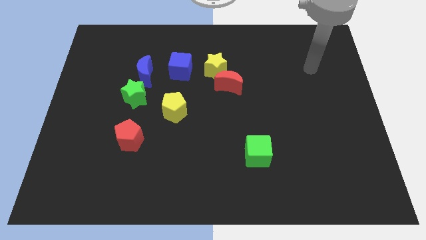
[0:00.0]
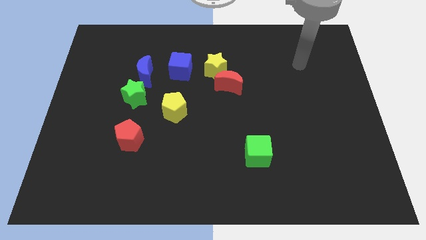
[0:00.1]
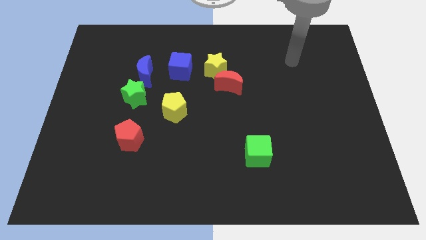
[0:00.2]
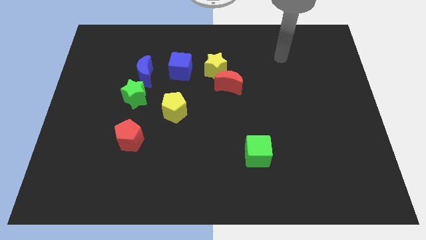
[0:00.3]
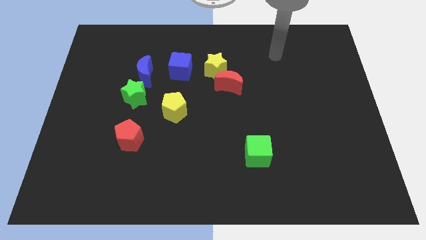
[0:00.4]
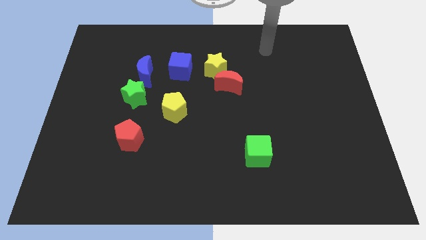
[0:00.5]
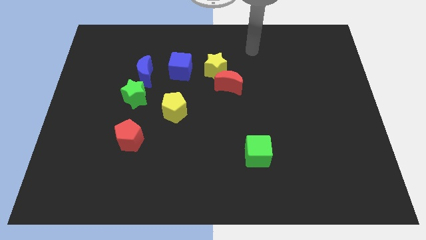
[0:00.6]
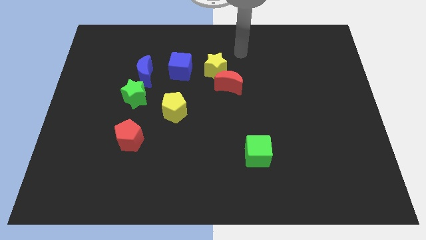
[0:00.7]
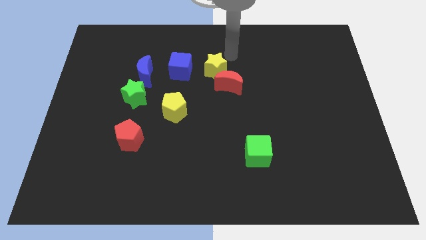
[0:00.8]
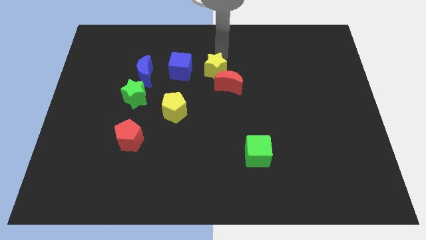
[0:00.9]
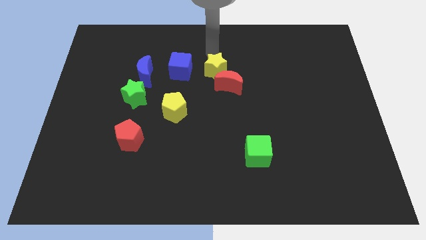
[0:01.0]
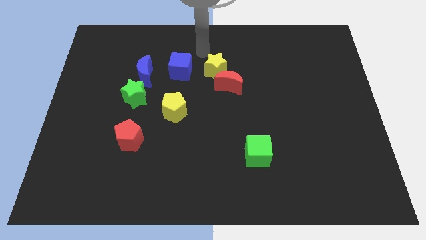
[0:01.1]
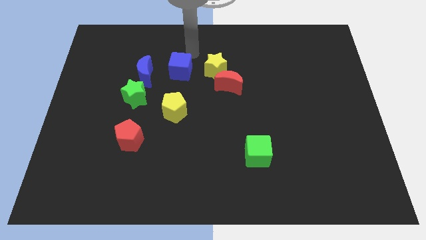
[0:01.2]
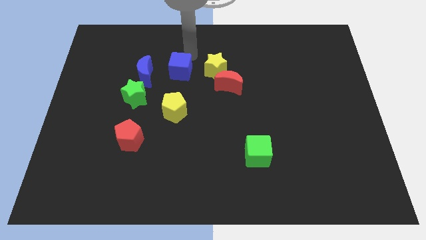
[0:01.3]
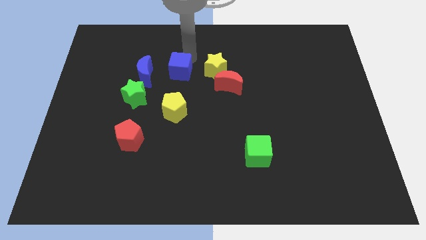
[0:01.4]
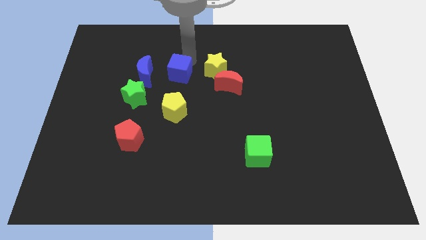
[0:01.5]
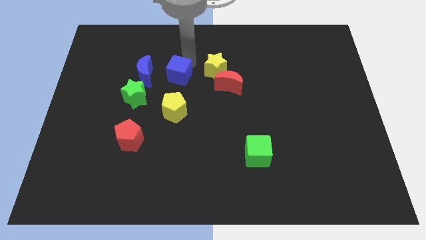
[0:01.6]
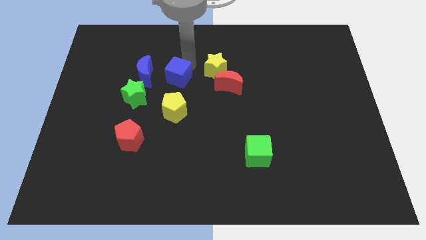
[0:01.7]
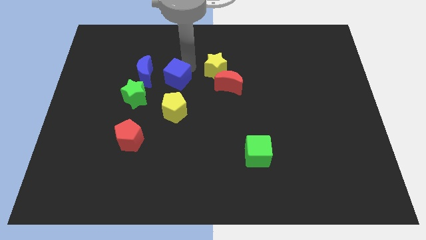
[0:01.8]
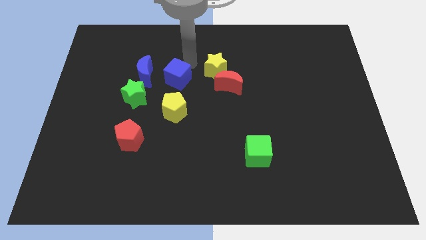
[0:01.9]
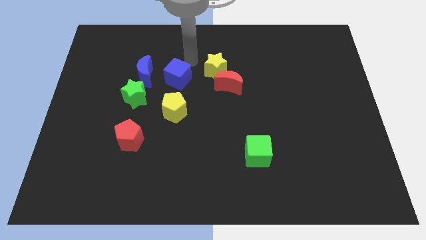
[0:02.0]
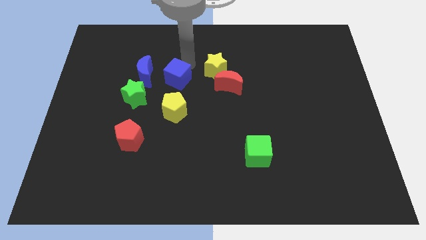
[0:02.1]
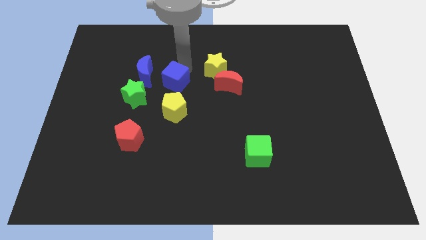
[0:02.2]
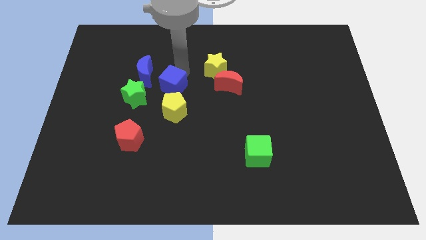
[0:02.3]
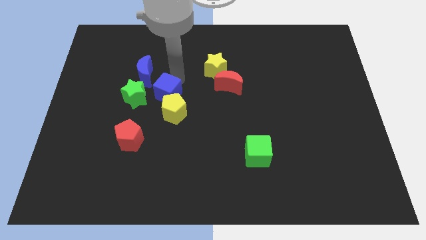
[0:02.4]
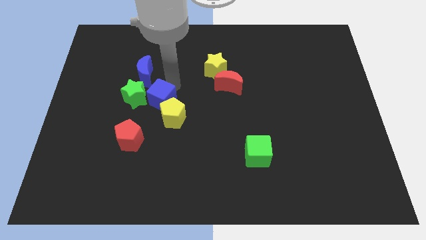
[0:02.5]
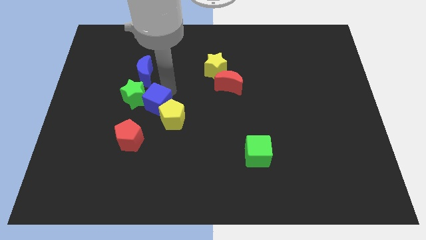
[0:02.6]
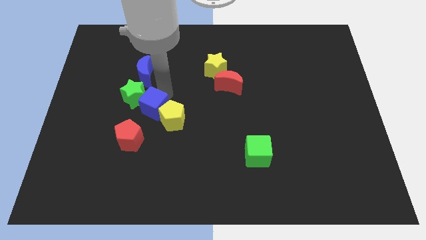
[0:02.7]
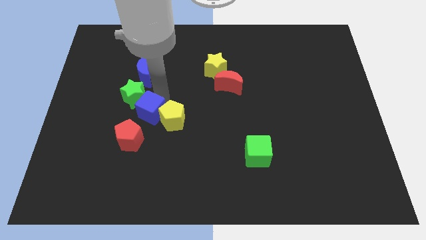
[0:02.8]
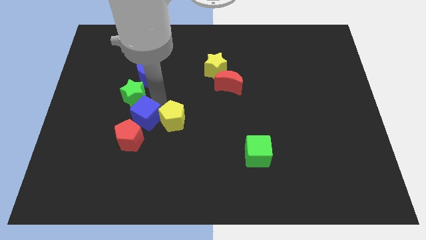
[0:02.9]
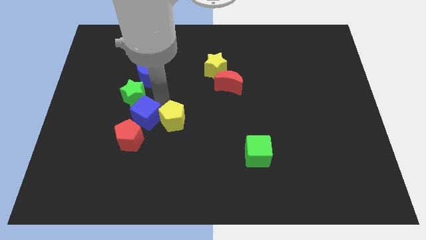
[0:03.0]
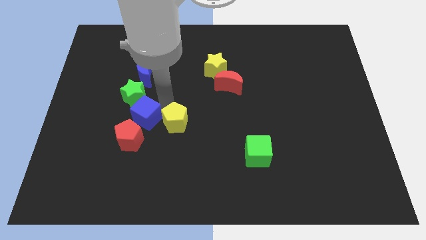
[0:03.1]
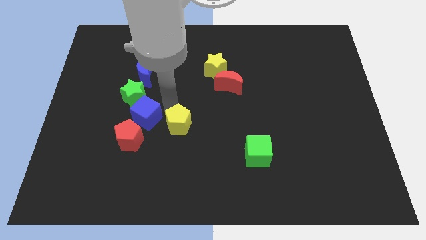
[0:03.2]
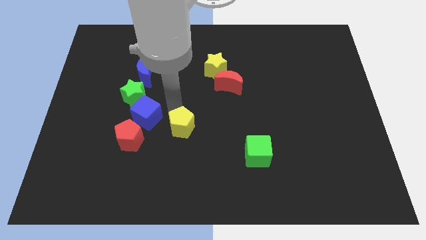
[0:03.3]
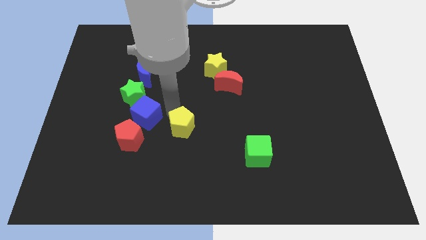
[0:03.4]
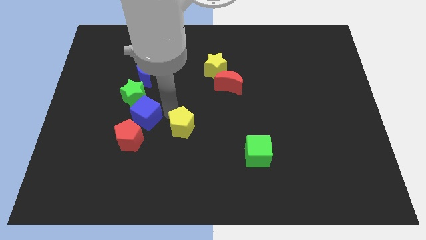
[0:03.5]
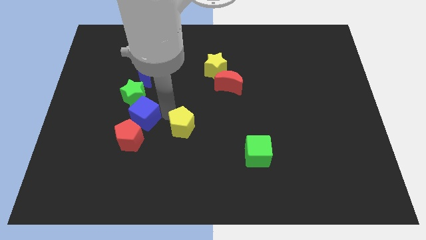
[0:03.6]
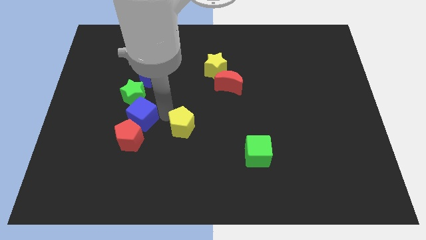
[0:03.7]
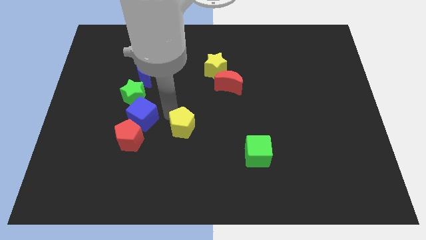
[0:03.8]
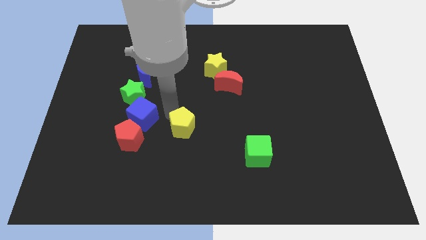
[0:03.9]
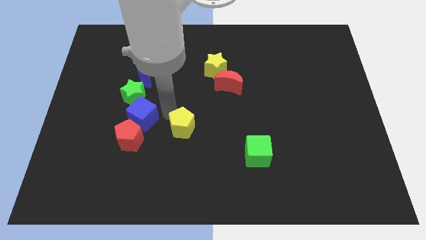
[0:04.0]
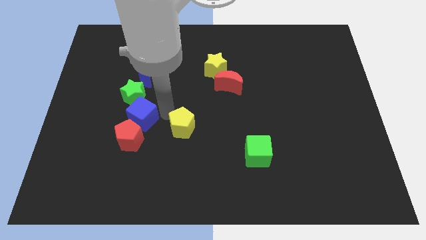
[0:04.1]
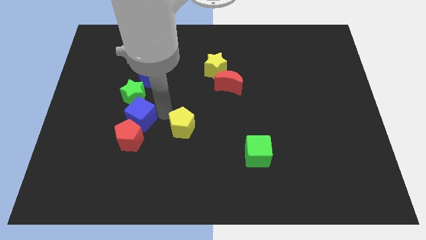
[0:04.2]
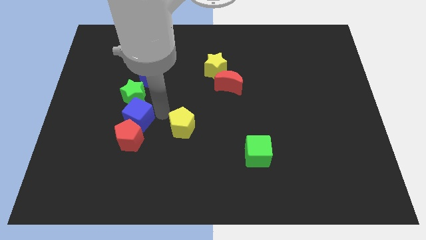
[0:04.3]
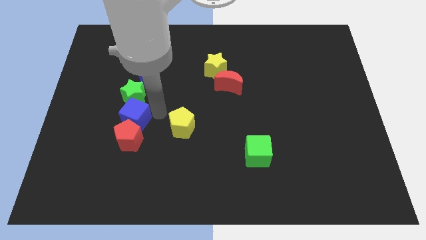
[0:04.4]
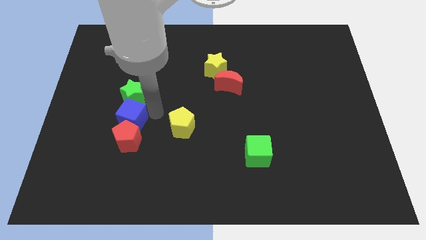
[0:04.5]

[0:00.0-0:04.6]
slide the blue cube diagonally down and to the left of the green star

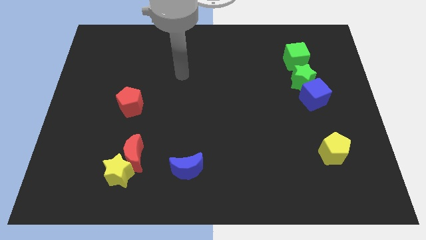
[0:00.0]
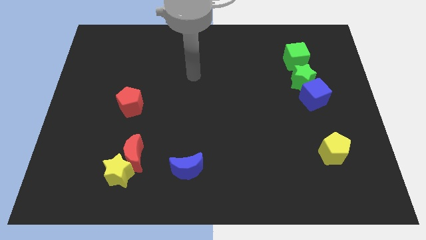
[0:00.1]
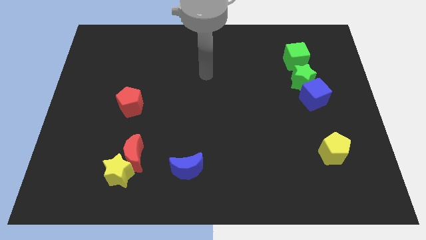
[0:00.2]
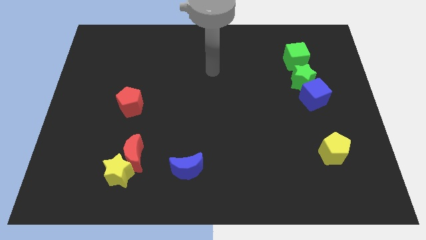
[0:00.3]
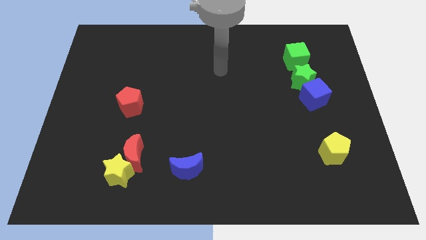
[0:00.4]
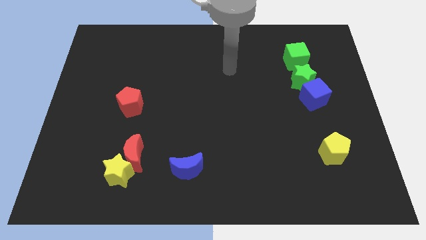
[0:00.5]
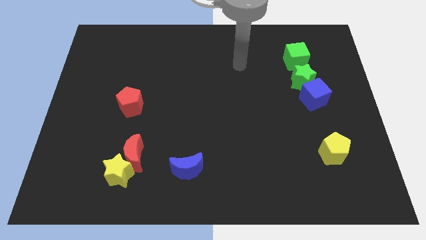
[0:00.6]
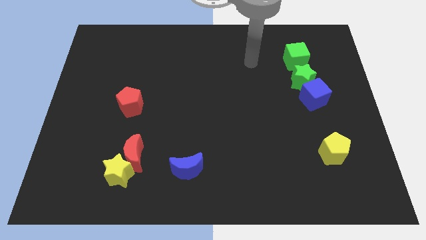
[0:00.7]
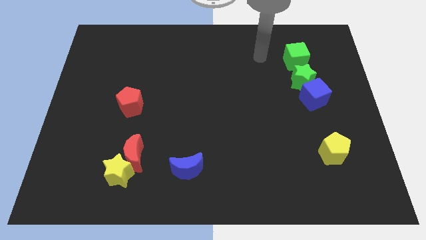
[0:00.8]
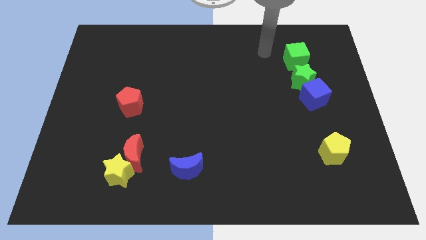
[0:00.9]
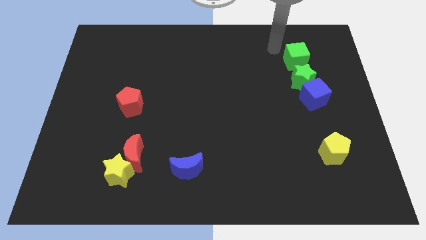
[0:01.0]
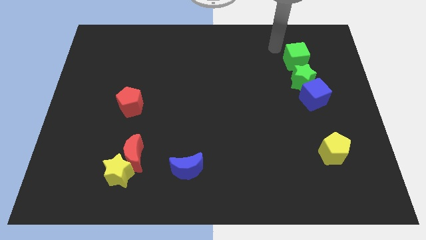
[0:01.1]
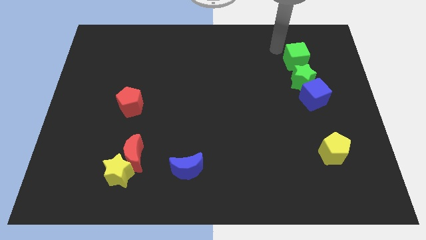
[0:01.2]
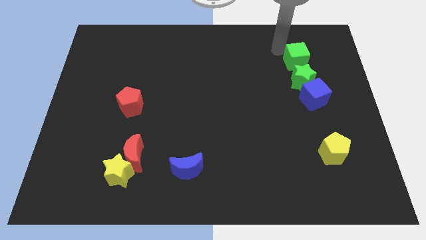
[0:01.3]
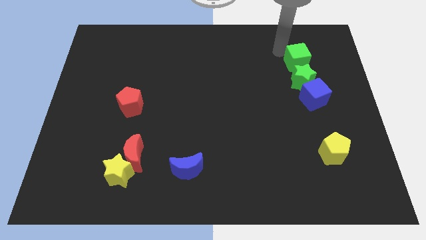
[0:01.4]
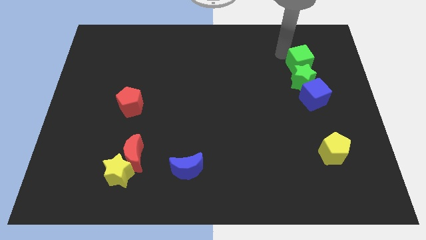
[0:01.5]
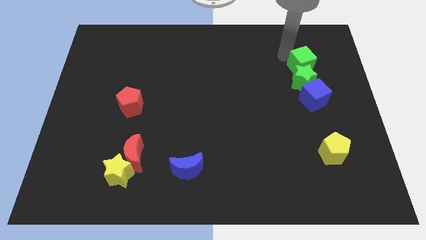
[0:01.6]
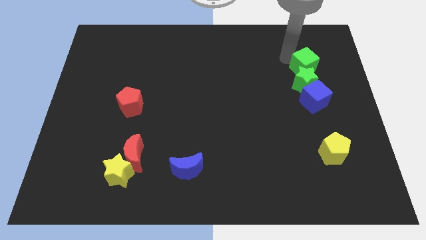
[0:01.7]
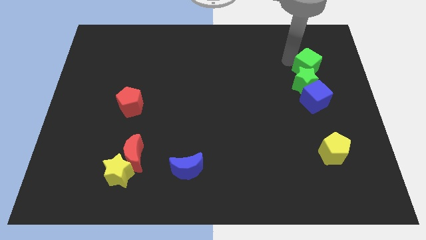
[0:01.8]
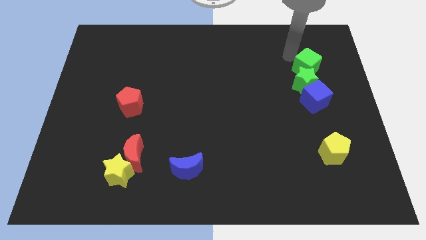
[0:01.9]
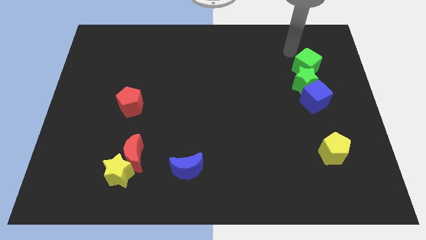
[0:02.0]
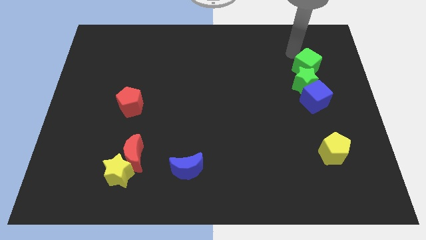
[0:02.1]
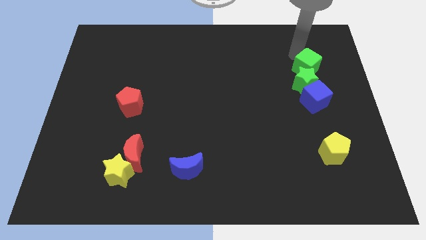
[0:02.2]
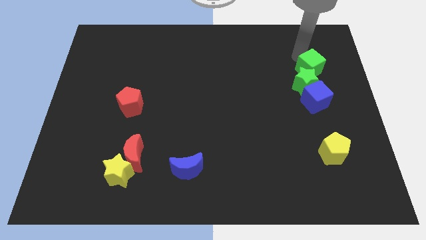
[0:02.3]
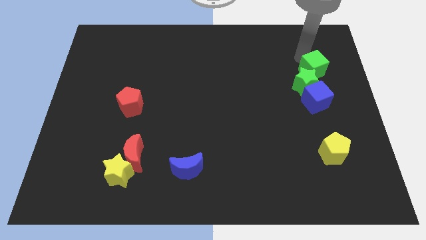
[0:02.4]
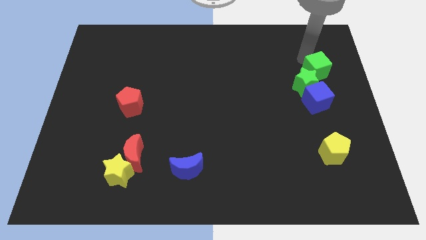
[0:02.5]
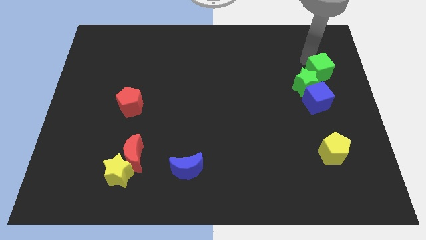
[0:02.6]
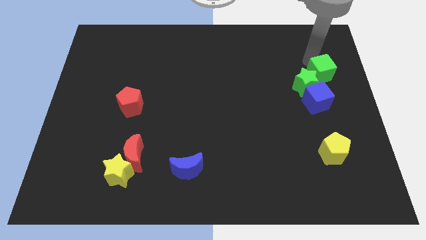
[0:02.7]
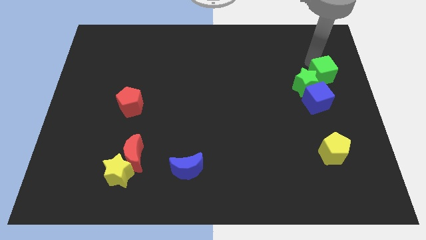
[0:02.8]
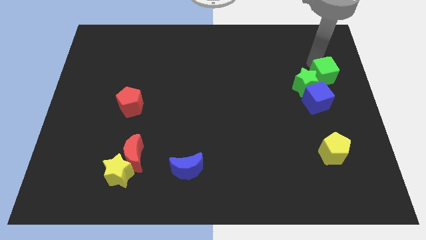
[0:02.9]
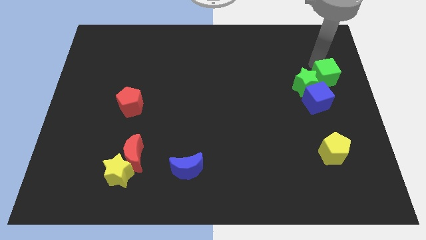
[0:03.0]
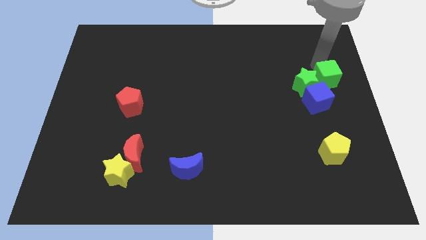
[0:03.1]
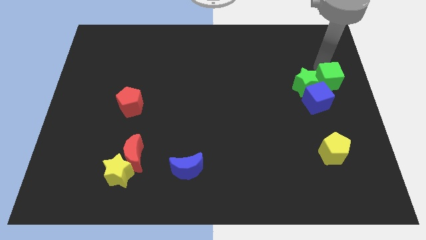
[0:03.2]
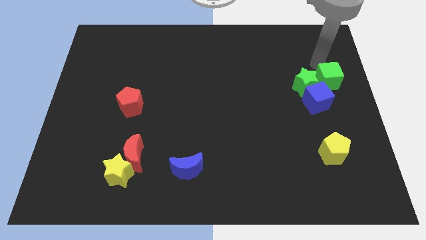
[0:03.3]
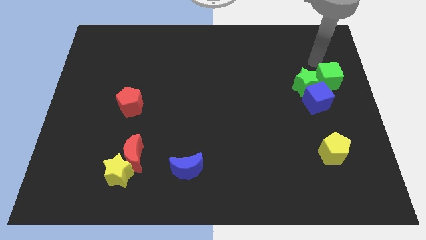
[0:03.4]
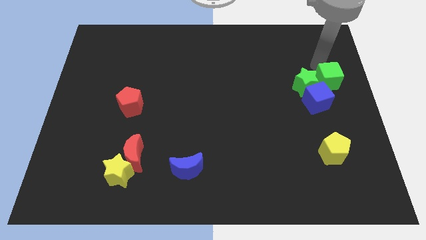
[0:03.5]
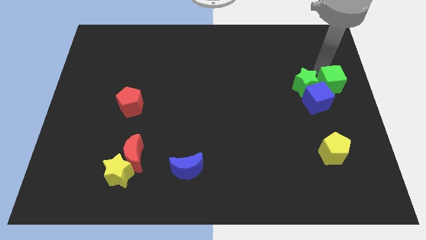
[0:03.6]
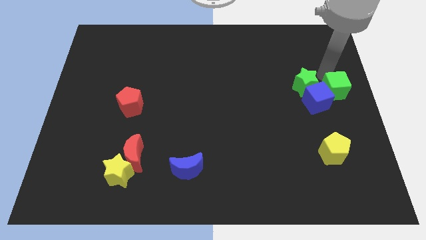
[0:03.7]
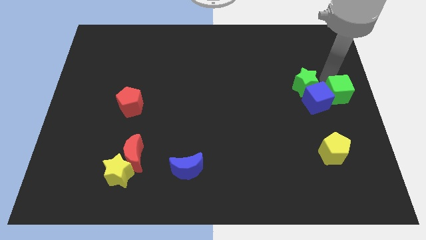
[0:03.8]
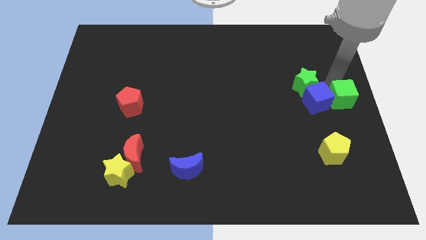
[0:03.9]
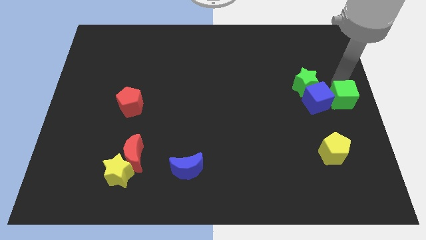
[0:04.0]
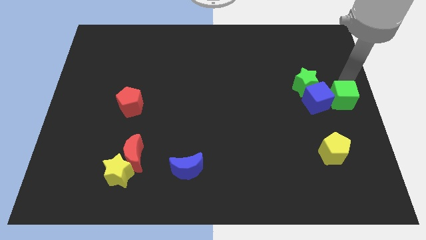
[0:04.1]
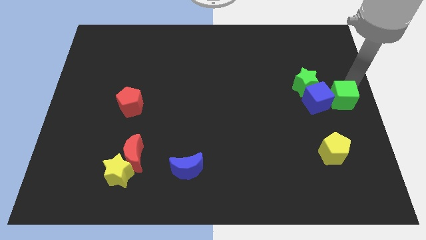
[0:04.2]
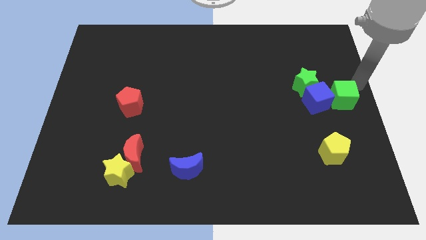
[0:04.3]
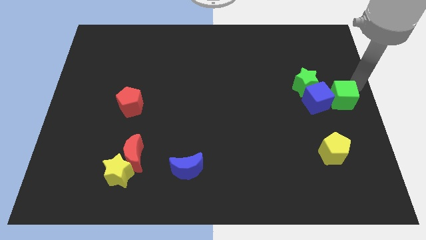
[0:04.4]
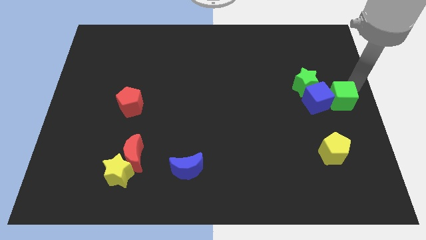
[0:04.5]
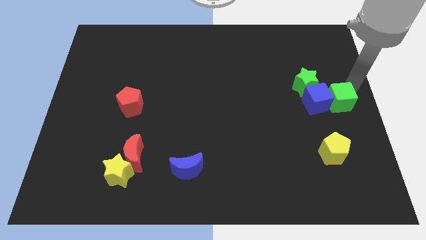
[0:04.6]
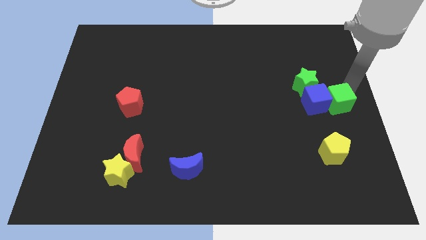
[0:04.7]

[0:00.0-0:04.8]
slide the green cube to the top of the yellow pentagon
